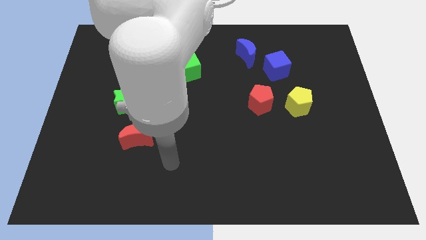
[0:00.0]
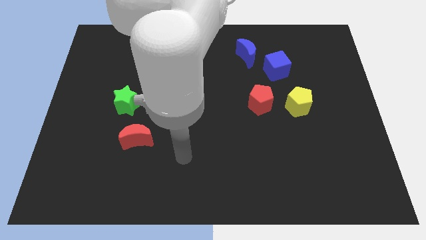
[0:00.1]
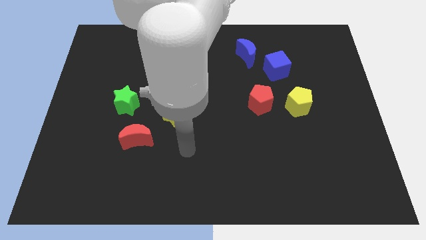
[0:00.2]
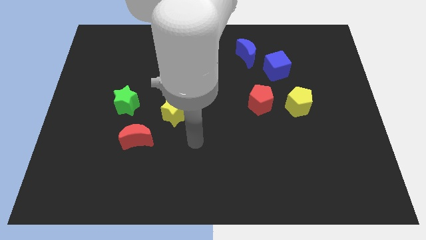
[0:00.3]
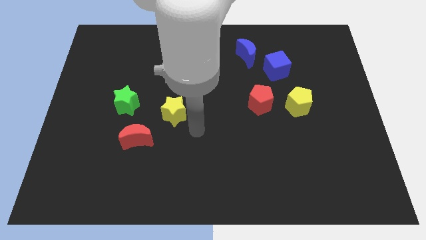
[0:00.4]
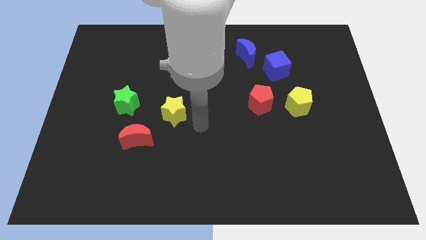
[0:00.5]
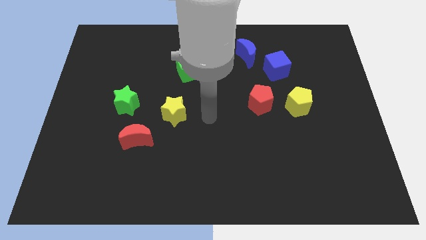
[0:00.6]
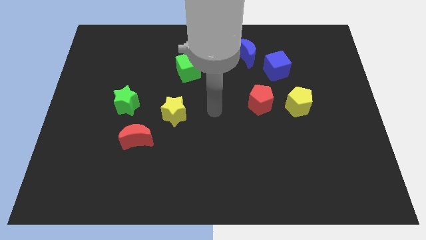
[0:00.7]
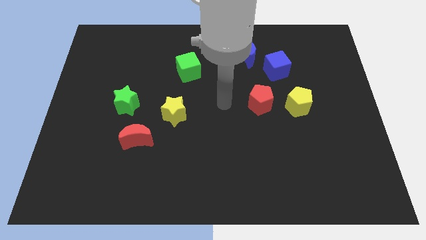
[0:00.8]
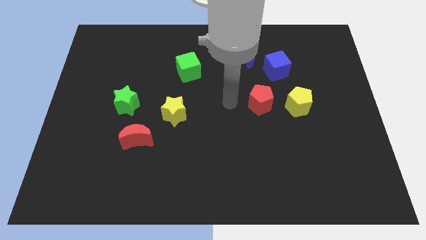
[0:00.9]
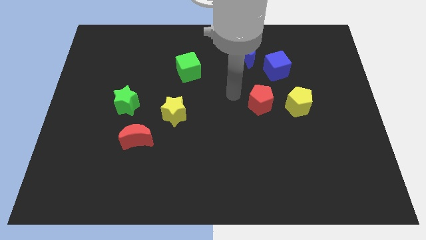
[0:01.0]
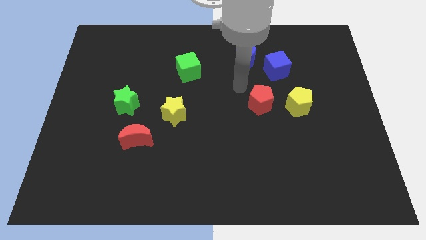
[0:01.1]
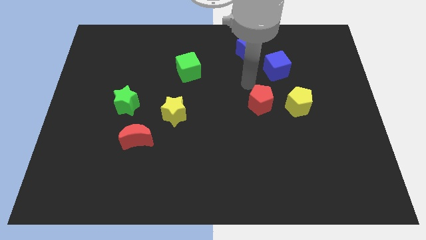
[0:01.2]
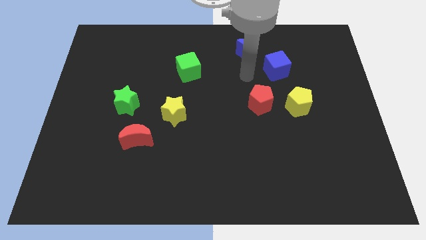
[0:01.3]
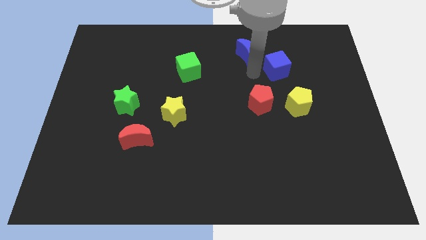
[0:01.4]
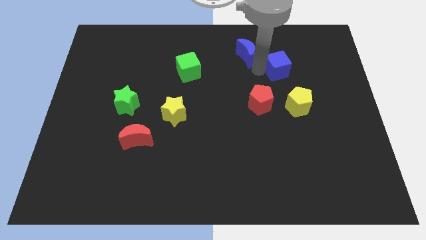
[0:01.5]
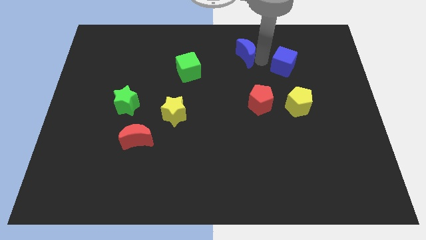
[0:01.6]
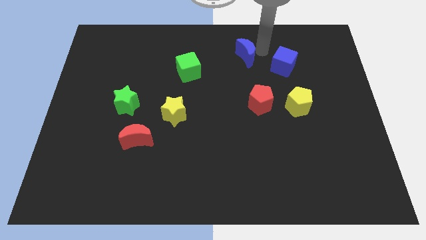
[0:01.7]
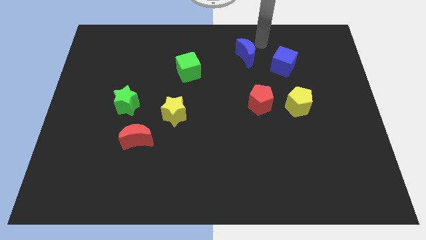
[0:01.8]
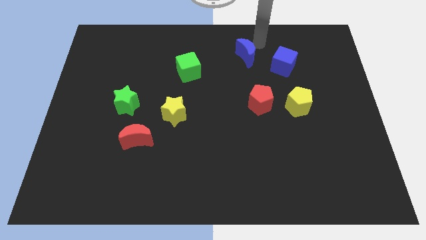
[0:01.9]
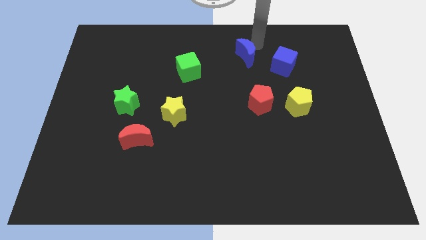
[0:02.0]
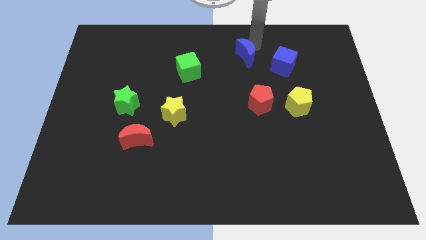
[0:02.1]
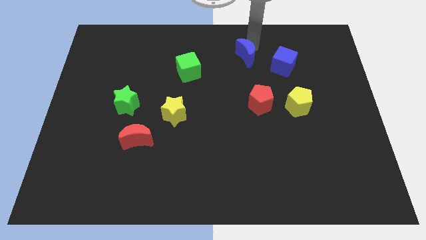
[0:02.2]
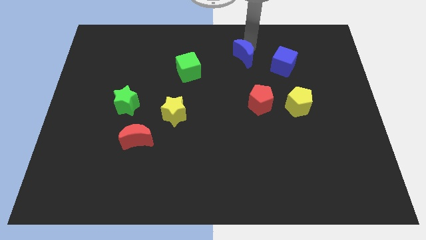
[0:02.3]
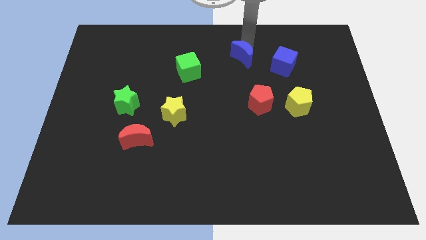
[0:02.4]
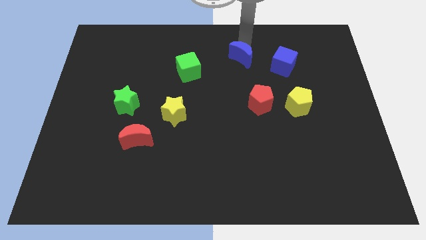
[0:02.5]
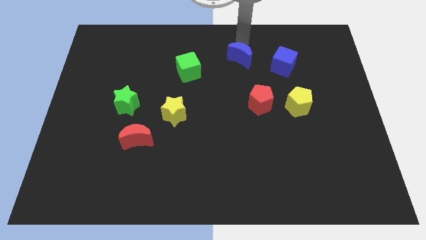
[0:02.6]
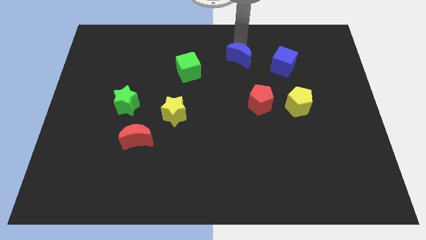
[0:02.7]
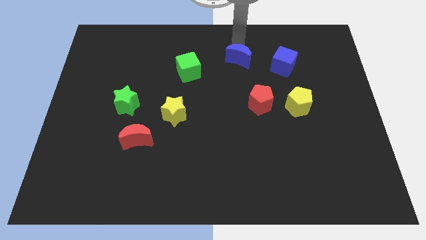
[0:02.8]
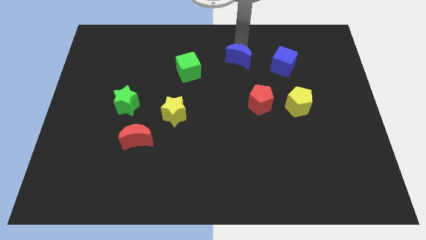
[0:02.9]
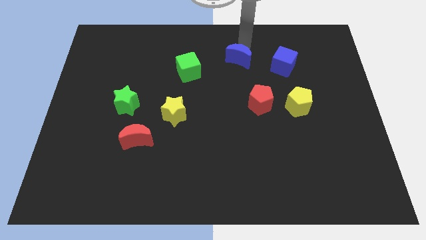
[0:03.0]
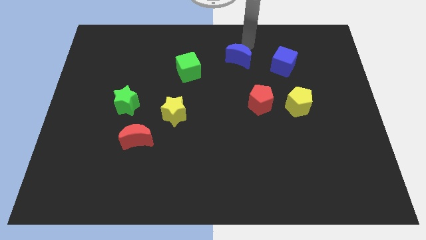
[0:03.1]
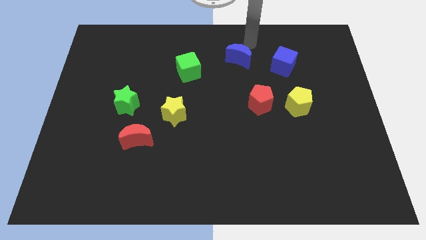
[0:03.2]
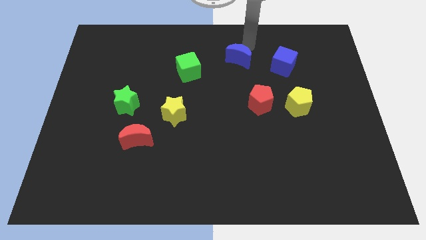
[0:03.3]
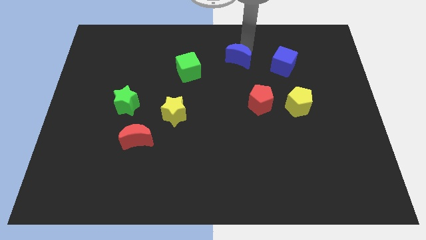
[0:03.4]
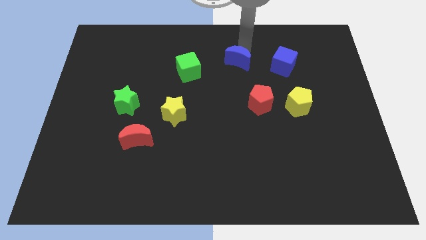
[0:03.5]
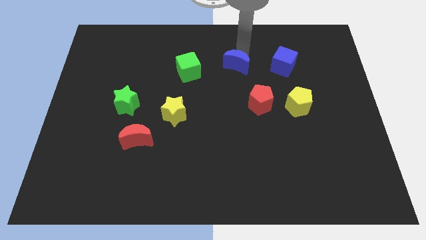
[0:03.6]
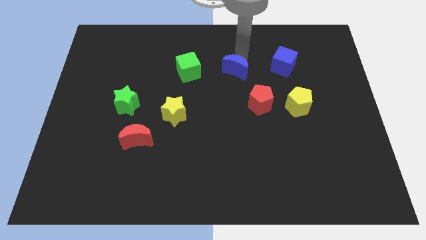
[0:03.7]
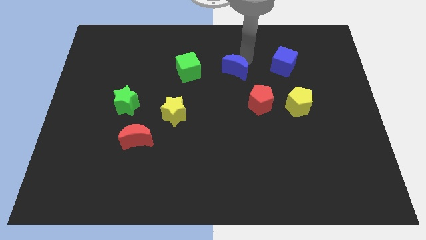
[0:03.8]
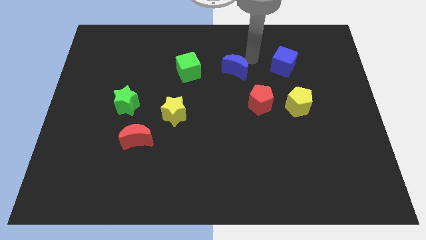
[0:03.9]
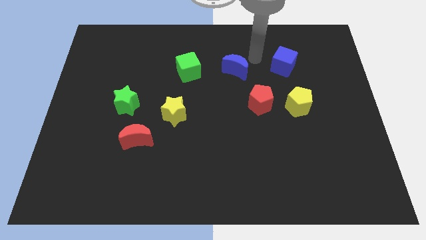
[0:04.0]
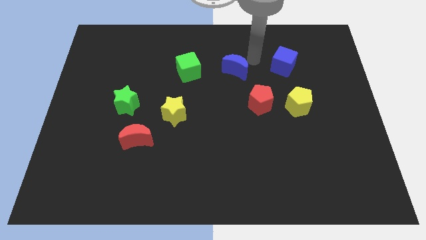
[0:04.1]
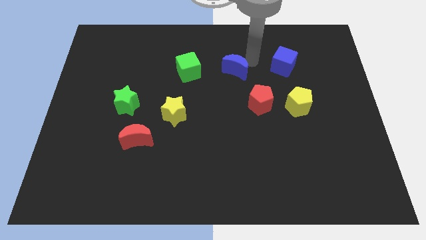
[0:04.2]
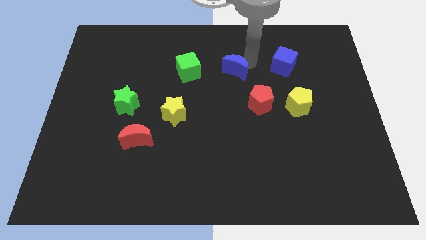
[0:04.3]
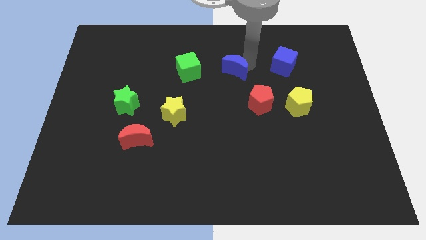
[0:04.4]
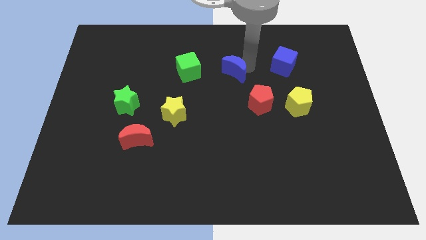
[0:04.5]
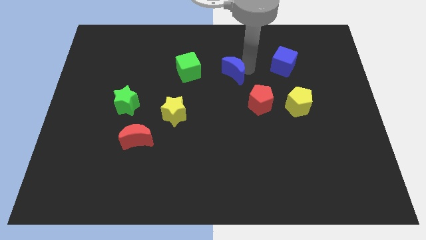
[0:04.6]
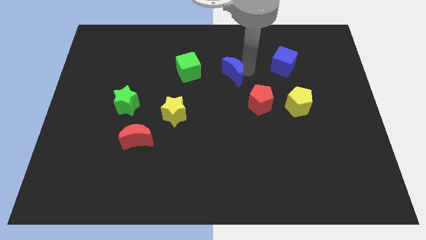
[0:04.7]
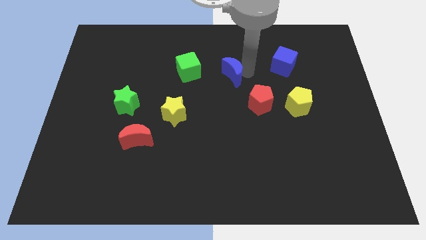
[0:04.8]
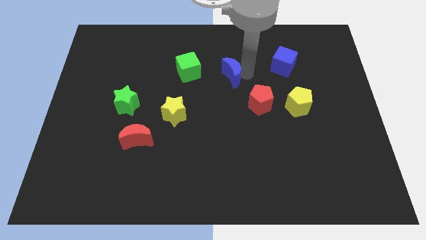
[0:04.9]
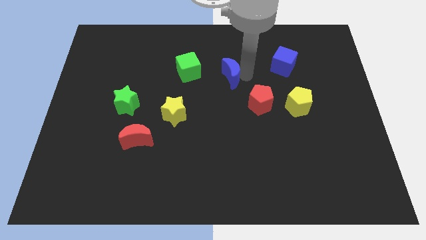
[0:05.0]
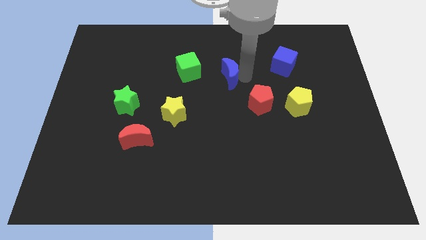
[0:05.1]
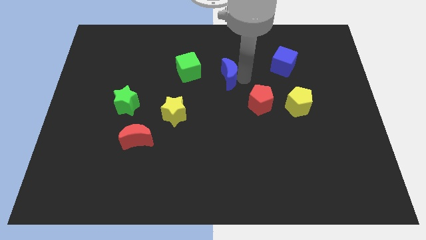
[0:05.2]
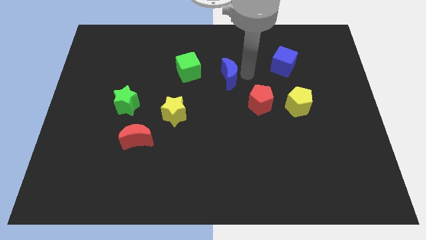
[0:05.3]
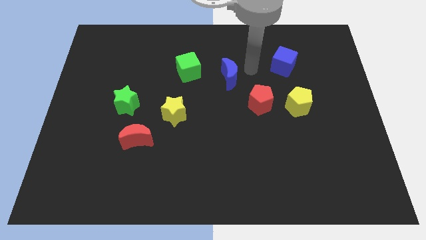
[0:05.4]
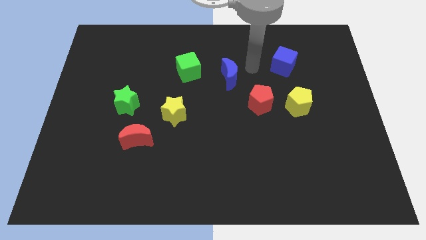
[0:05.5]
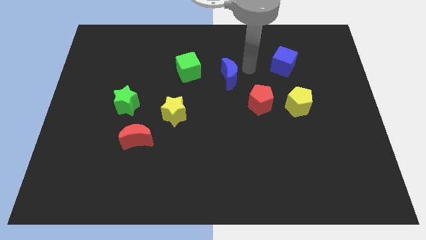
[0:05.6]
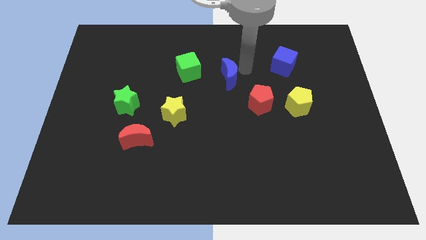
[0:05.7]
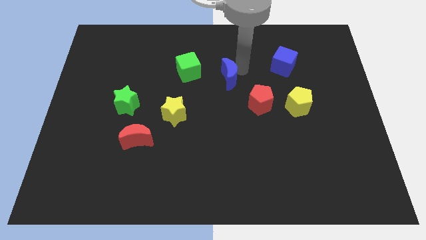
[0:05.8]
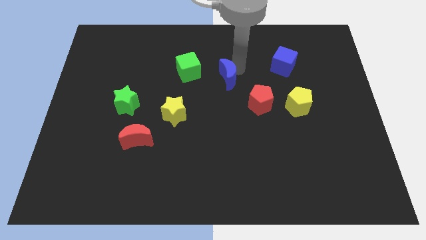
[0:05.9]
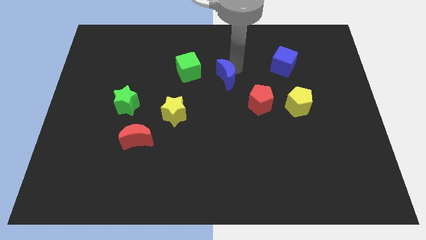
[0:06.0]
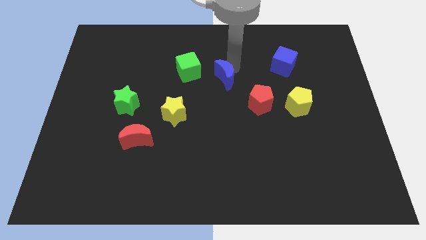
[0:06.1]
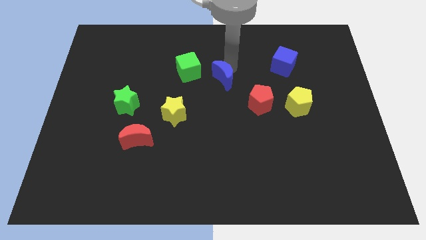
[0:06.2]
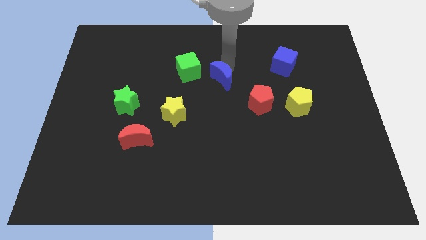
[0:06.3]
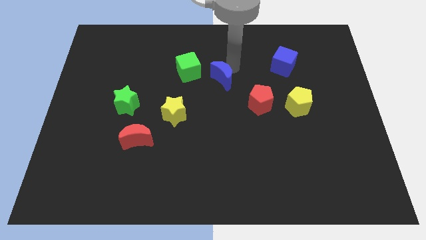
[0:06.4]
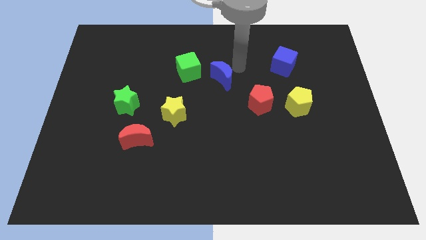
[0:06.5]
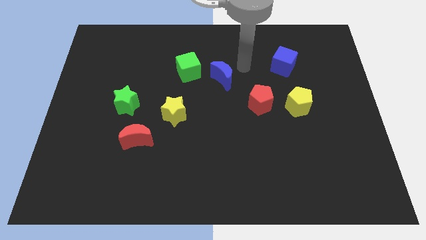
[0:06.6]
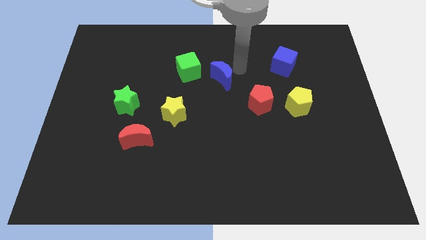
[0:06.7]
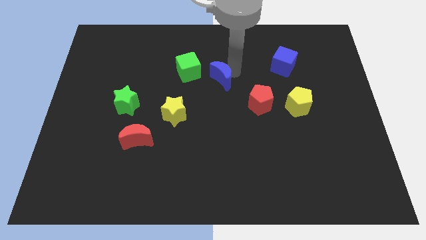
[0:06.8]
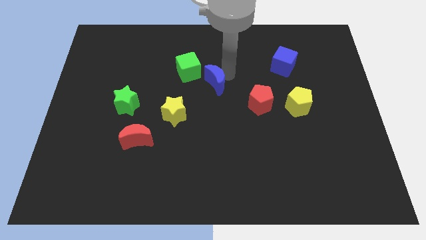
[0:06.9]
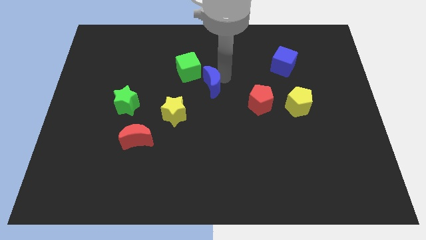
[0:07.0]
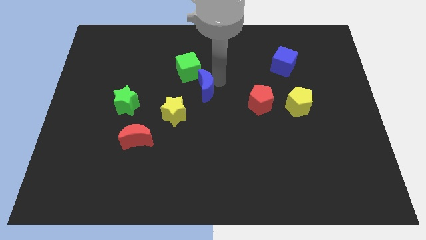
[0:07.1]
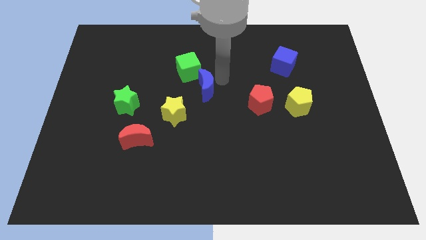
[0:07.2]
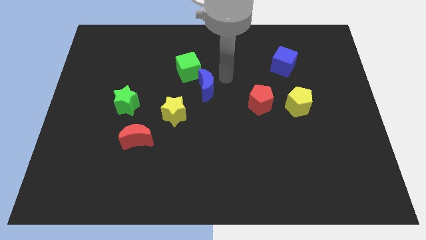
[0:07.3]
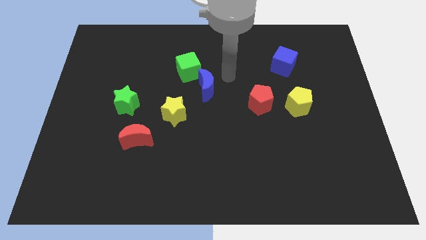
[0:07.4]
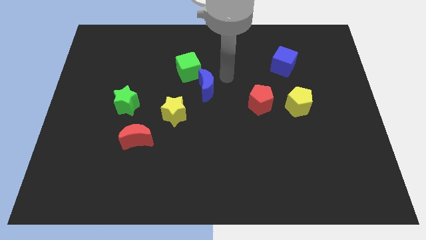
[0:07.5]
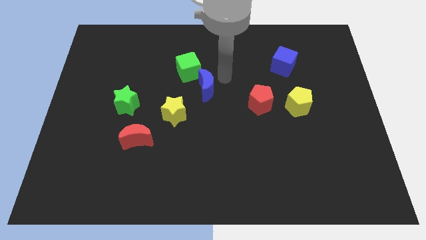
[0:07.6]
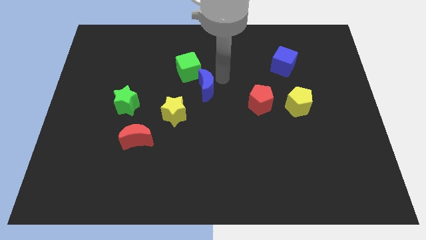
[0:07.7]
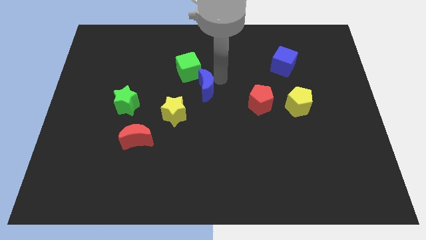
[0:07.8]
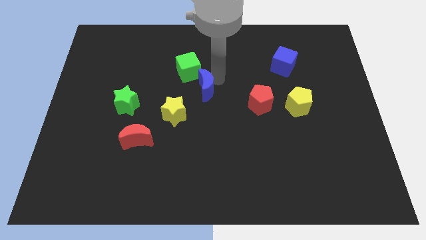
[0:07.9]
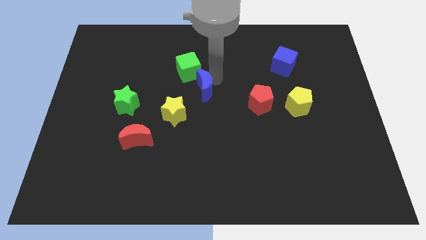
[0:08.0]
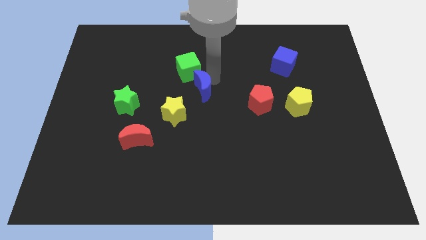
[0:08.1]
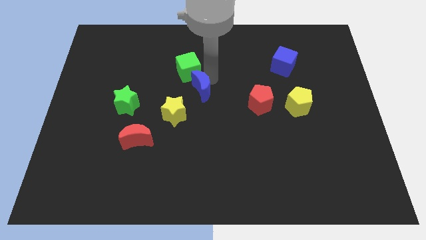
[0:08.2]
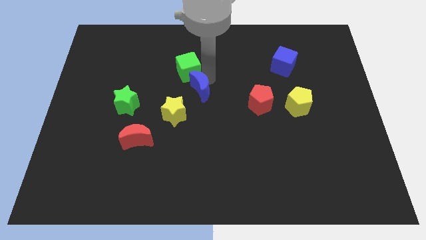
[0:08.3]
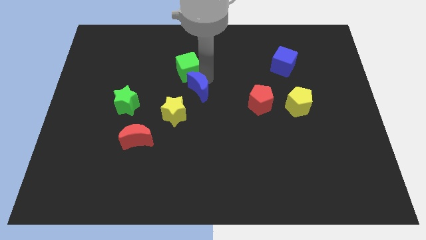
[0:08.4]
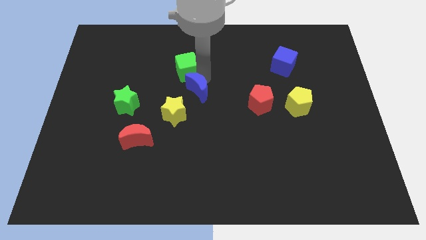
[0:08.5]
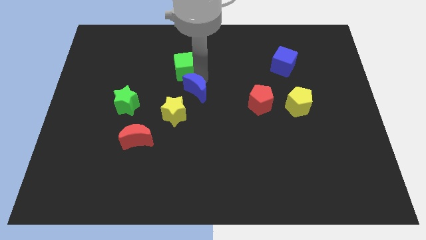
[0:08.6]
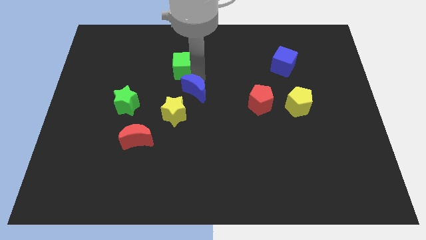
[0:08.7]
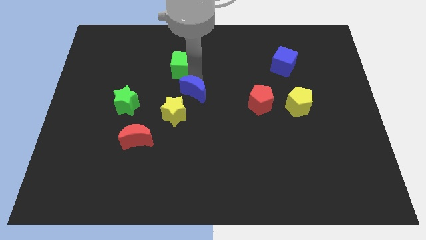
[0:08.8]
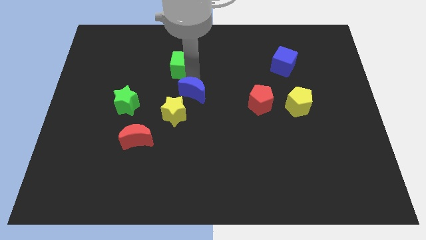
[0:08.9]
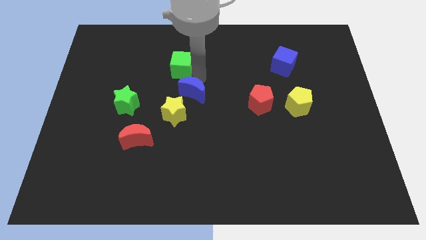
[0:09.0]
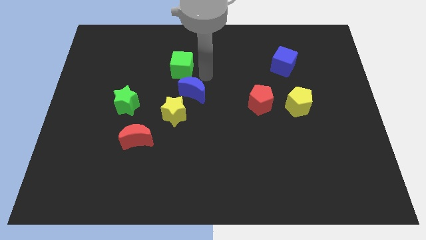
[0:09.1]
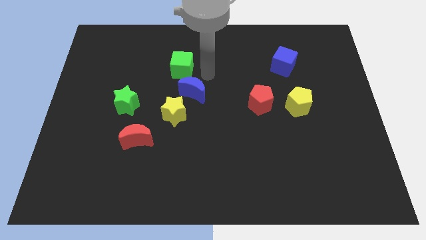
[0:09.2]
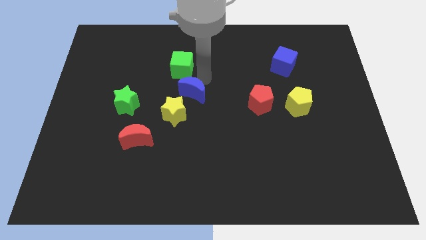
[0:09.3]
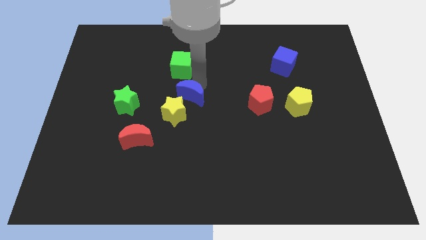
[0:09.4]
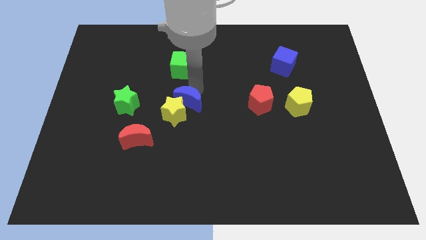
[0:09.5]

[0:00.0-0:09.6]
move the blue moon to the yellow star
